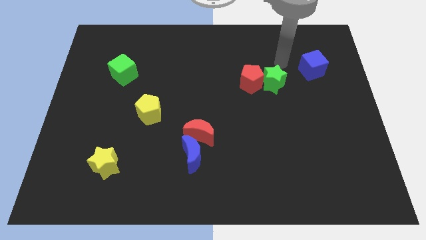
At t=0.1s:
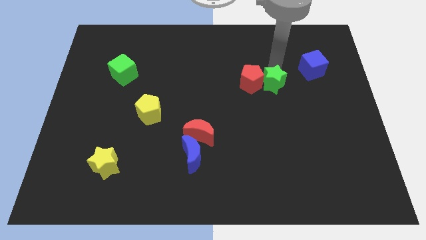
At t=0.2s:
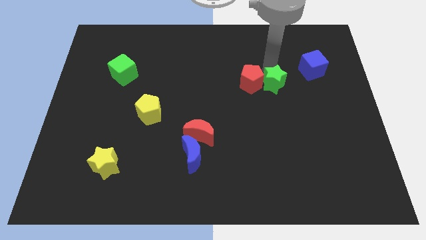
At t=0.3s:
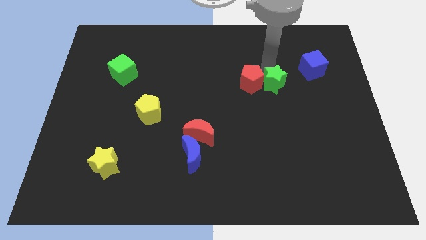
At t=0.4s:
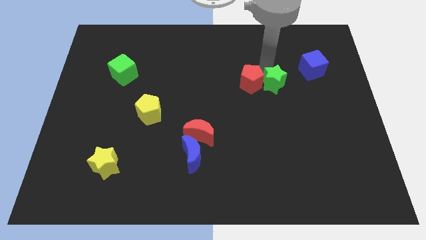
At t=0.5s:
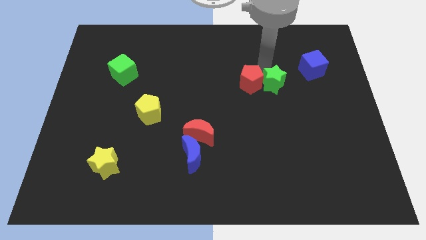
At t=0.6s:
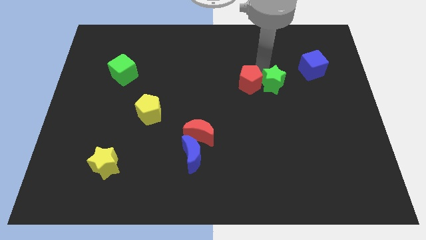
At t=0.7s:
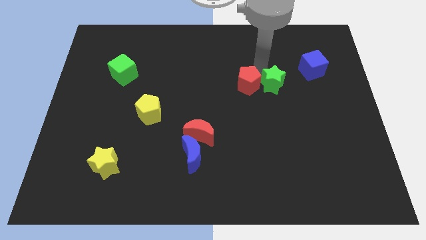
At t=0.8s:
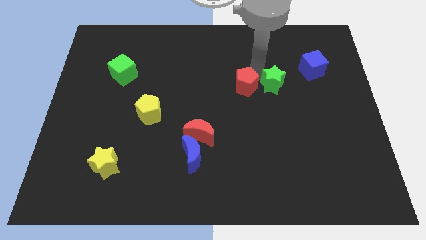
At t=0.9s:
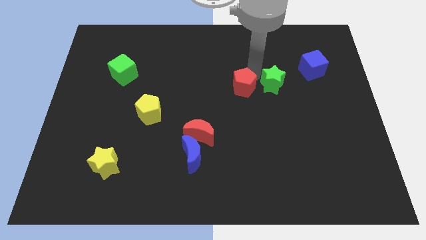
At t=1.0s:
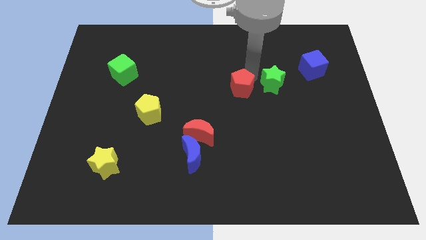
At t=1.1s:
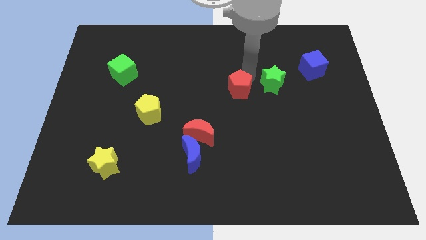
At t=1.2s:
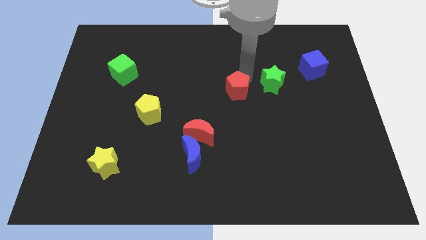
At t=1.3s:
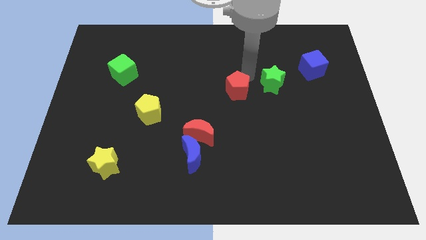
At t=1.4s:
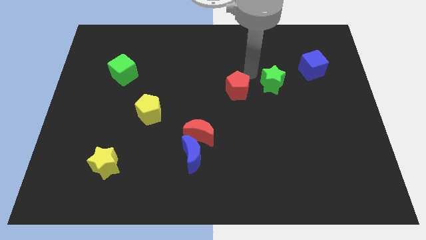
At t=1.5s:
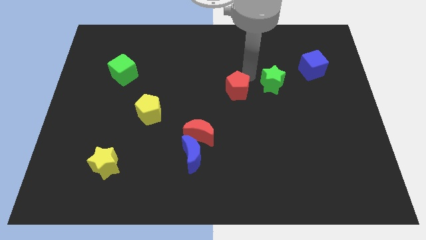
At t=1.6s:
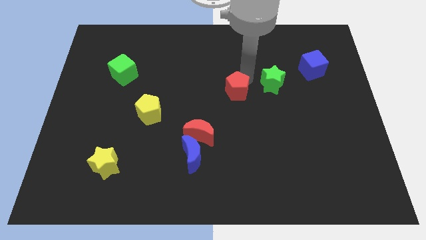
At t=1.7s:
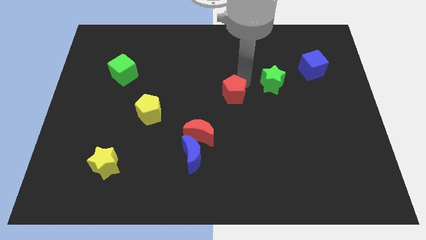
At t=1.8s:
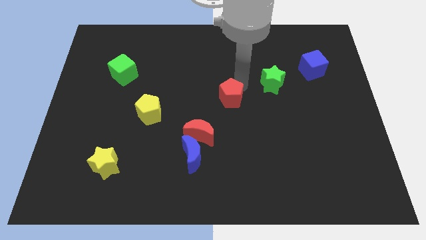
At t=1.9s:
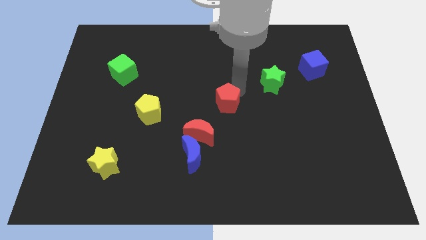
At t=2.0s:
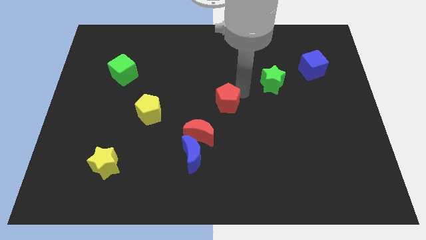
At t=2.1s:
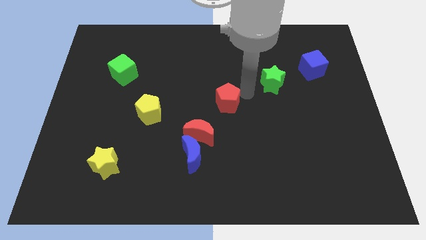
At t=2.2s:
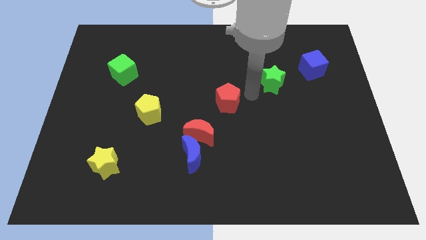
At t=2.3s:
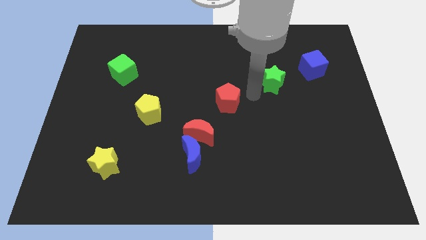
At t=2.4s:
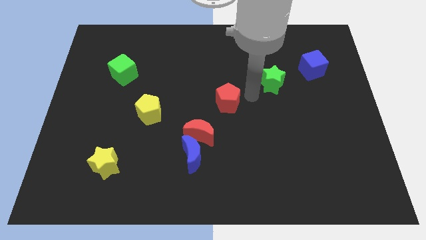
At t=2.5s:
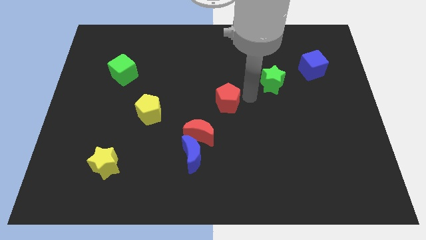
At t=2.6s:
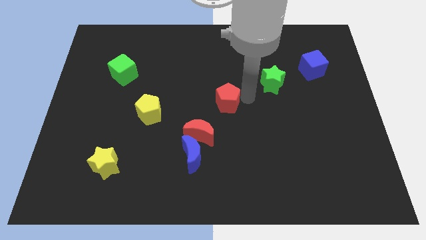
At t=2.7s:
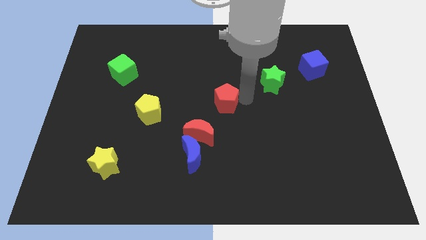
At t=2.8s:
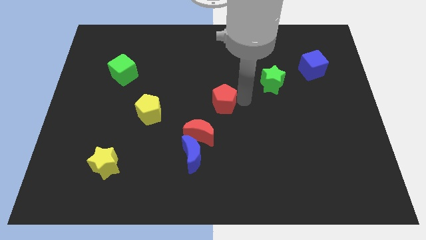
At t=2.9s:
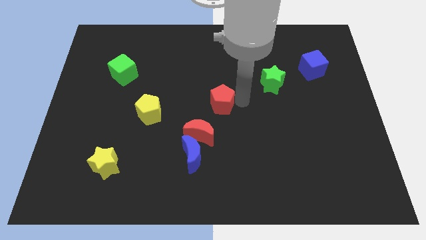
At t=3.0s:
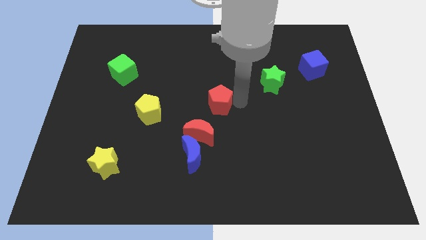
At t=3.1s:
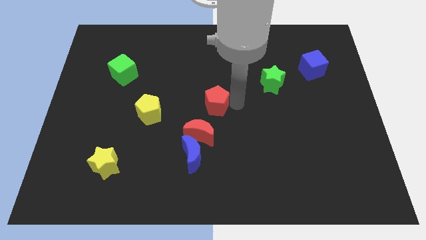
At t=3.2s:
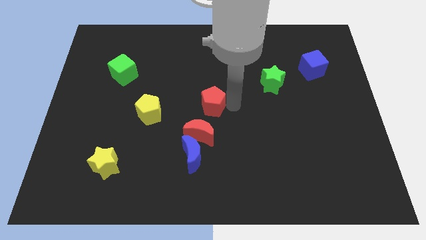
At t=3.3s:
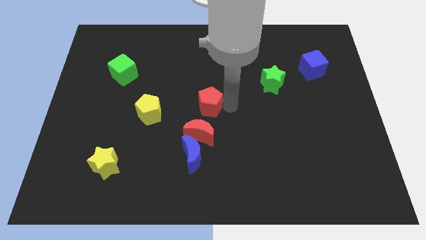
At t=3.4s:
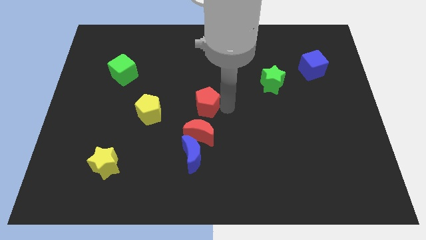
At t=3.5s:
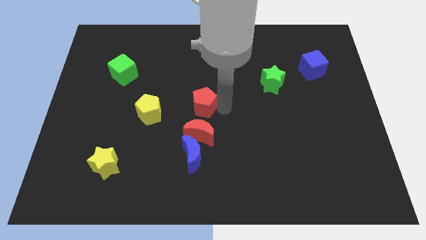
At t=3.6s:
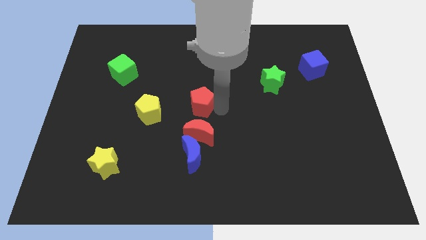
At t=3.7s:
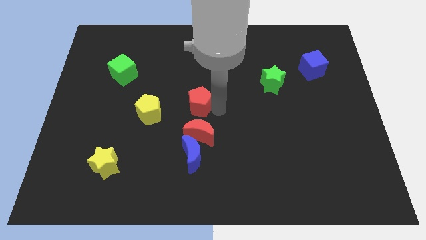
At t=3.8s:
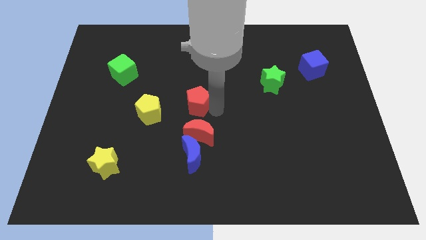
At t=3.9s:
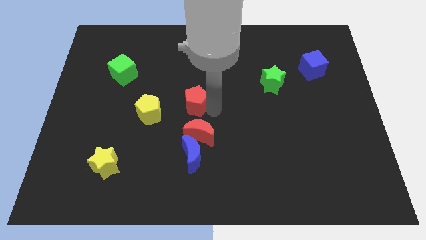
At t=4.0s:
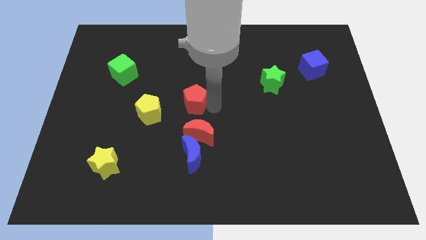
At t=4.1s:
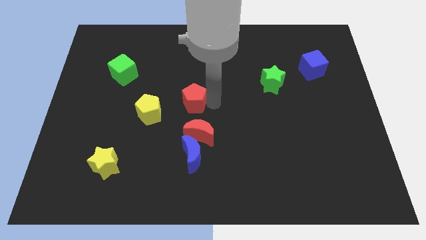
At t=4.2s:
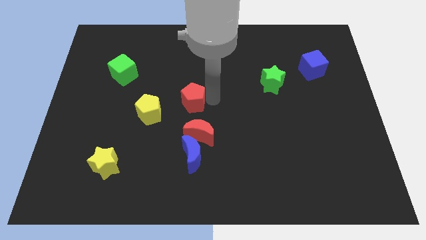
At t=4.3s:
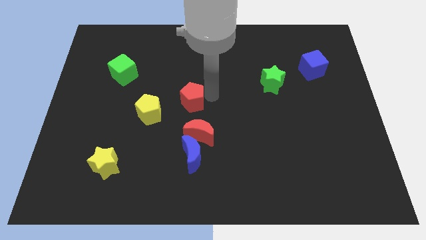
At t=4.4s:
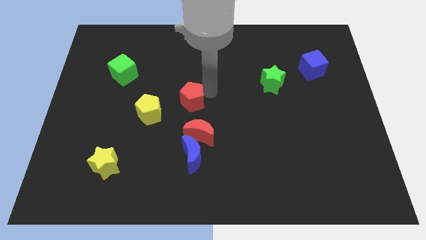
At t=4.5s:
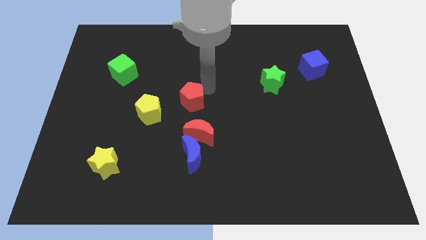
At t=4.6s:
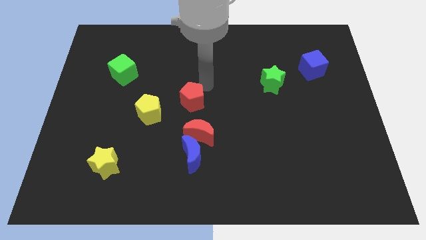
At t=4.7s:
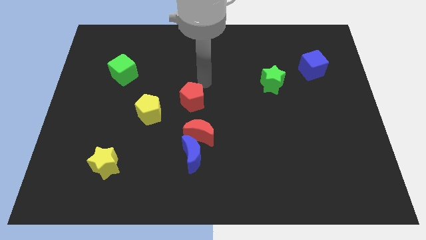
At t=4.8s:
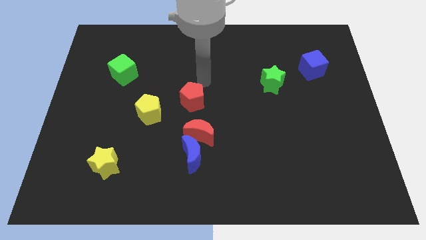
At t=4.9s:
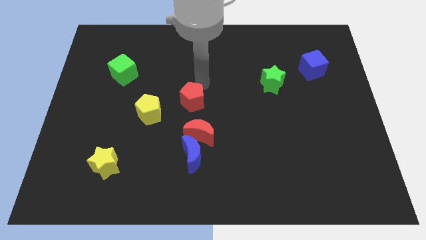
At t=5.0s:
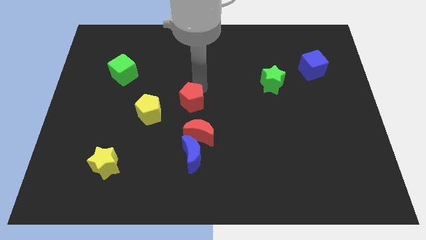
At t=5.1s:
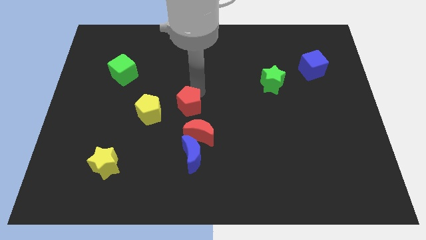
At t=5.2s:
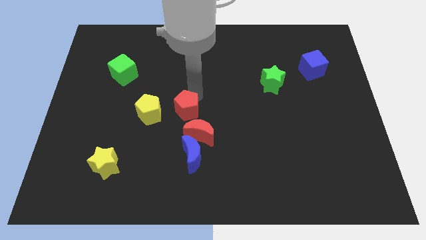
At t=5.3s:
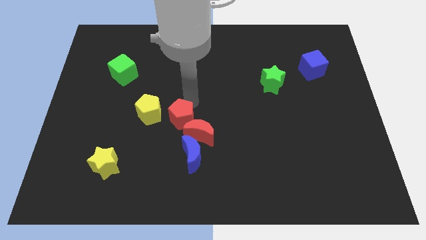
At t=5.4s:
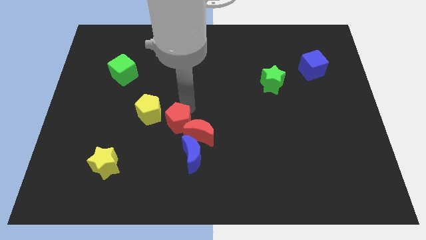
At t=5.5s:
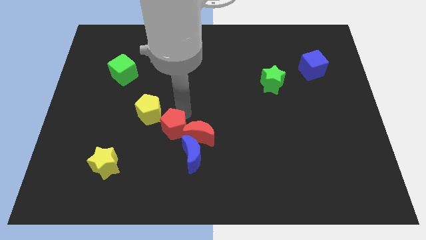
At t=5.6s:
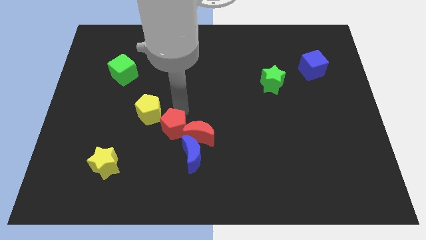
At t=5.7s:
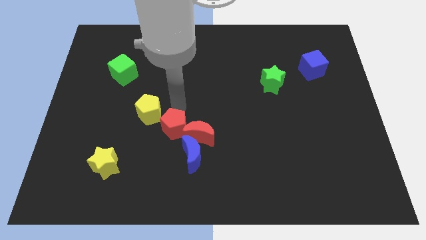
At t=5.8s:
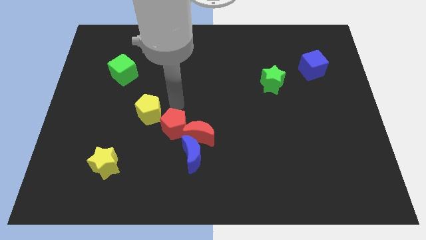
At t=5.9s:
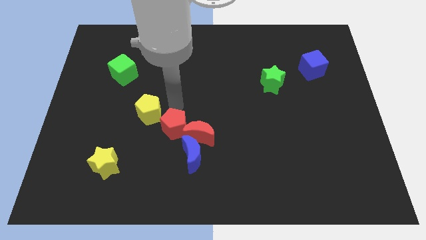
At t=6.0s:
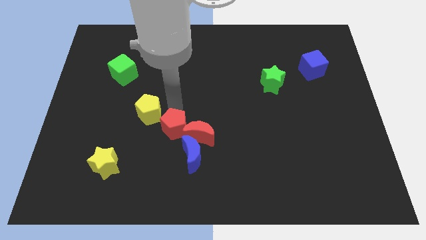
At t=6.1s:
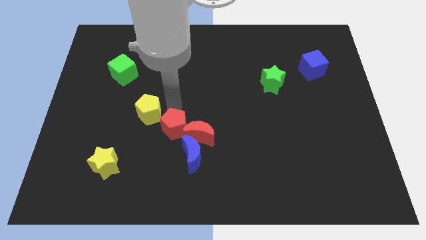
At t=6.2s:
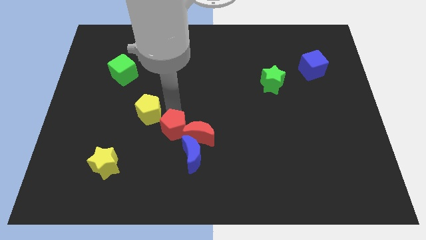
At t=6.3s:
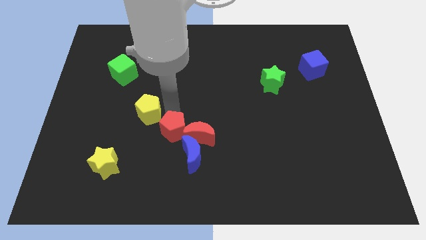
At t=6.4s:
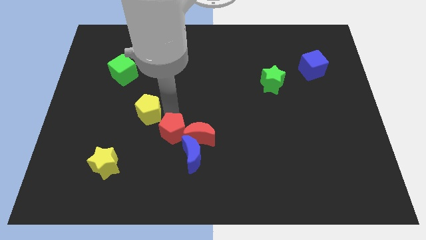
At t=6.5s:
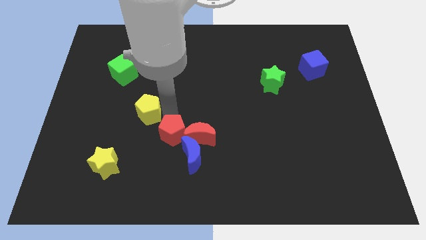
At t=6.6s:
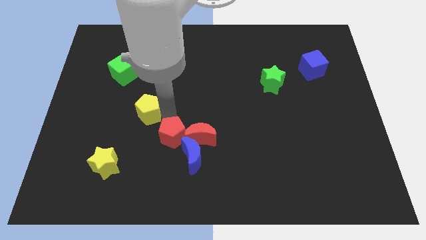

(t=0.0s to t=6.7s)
move the red pentagon to the bottom left side of the red moon
